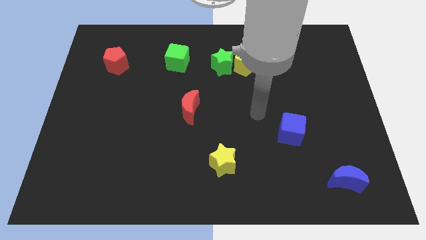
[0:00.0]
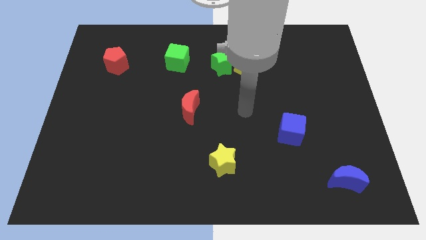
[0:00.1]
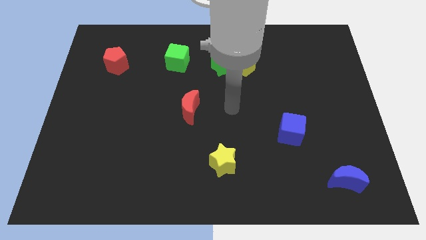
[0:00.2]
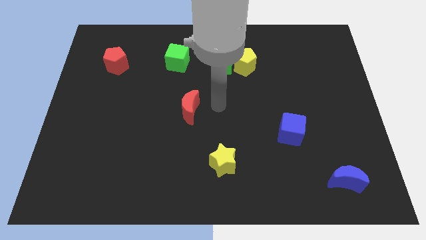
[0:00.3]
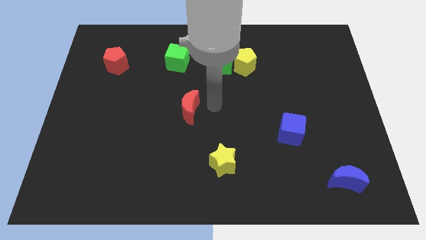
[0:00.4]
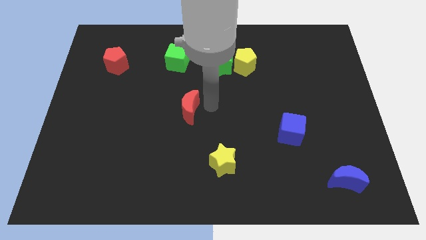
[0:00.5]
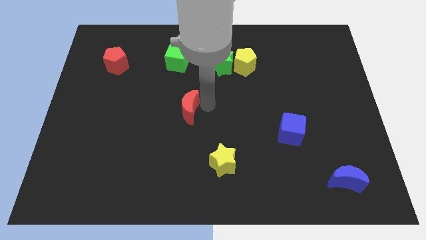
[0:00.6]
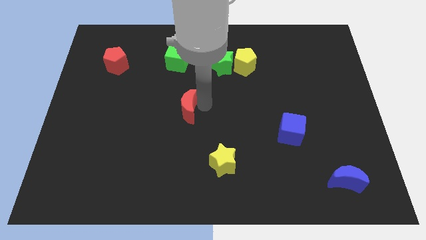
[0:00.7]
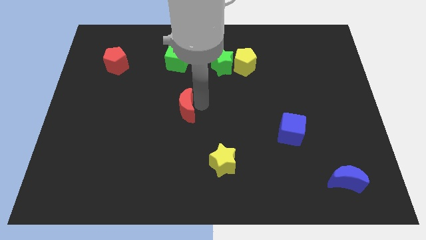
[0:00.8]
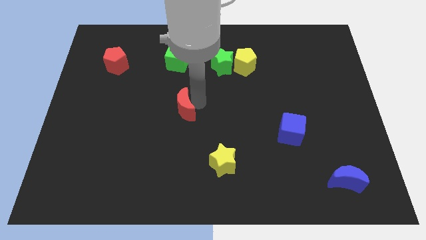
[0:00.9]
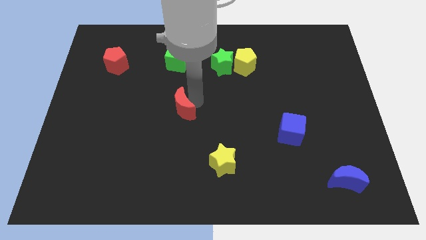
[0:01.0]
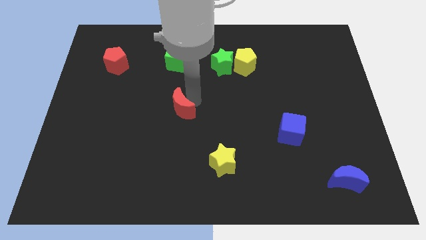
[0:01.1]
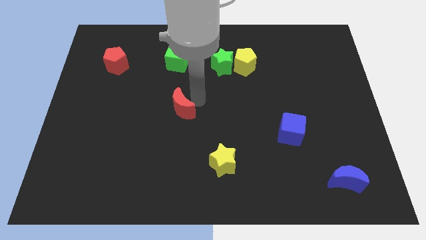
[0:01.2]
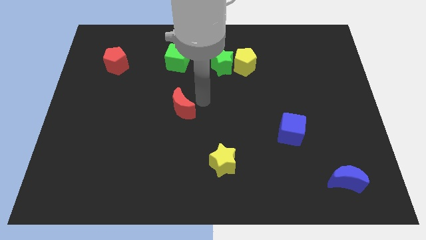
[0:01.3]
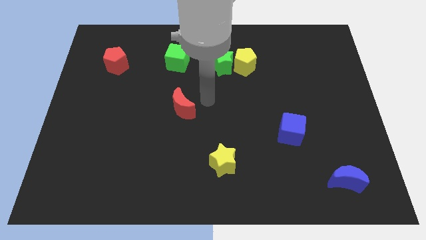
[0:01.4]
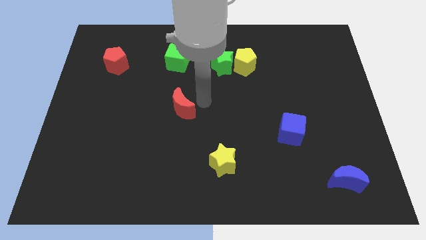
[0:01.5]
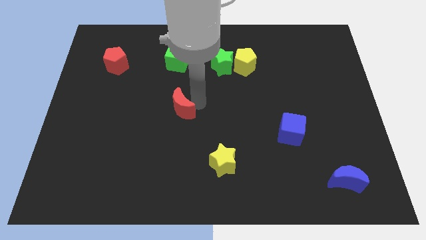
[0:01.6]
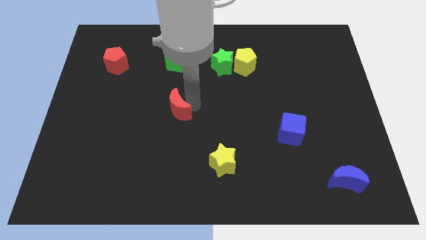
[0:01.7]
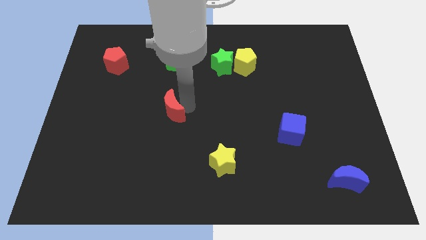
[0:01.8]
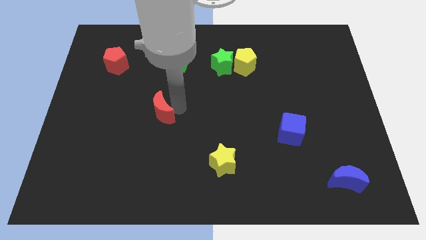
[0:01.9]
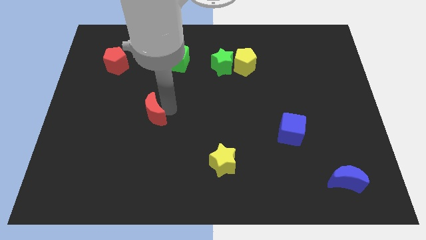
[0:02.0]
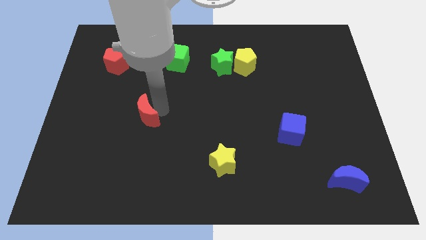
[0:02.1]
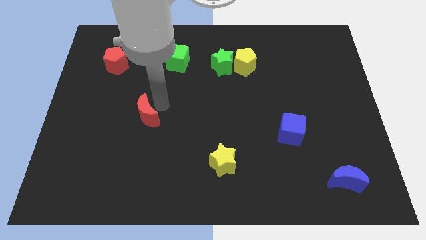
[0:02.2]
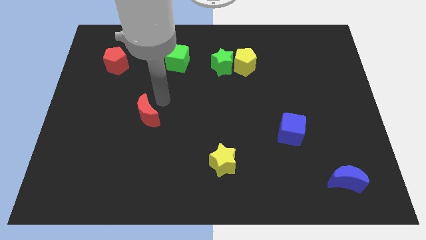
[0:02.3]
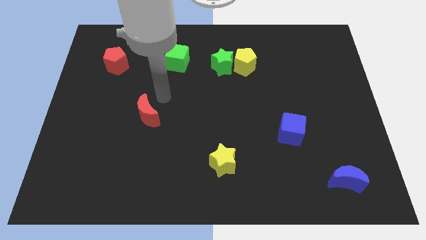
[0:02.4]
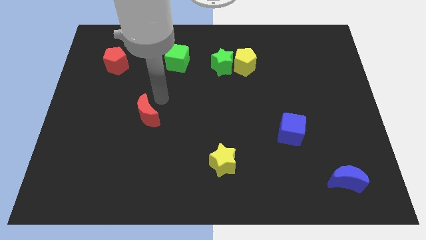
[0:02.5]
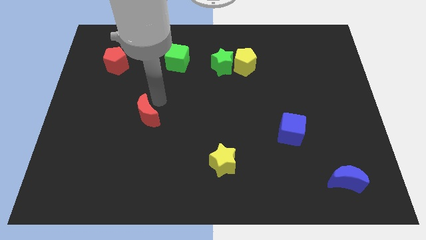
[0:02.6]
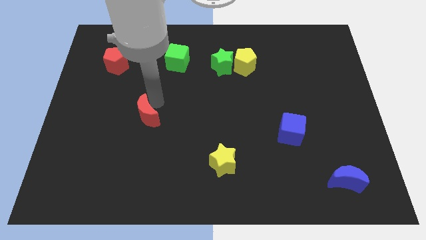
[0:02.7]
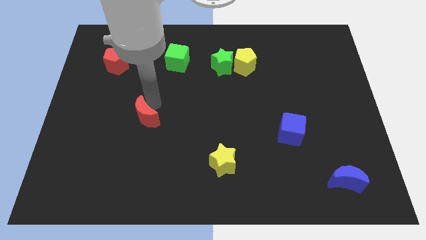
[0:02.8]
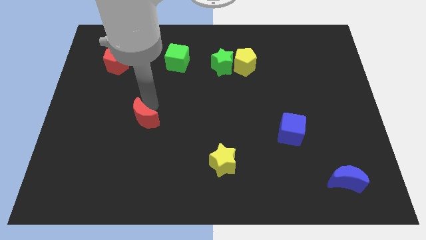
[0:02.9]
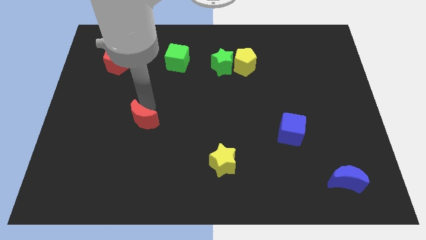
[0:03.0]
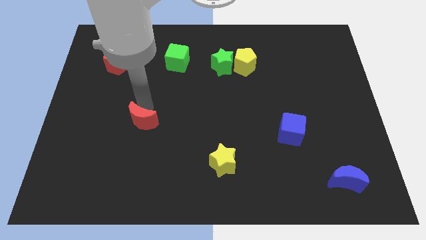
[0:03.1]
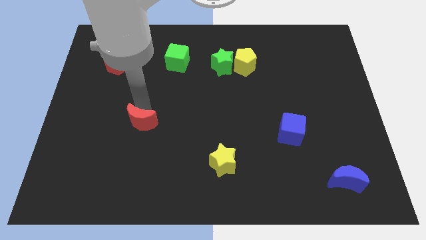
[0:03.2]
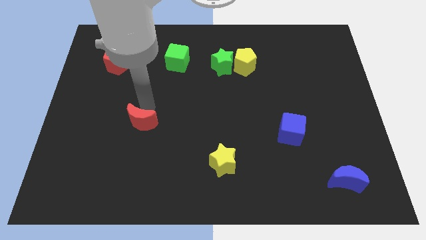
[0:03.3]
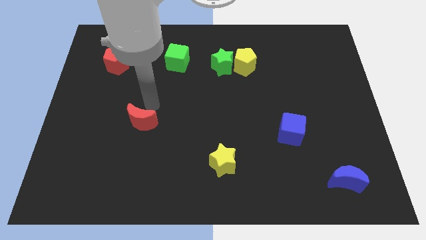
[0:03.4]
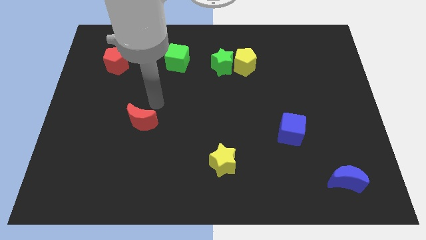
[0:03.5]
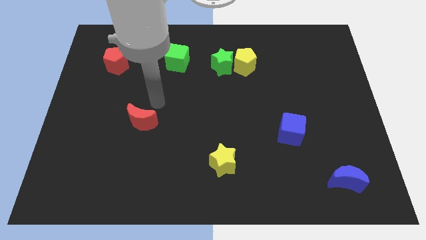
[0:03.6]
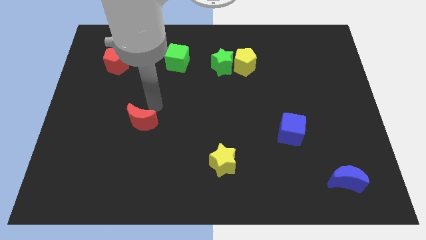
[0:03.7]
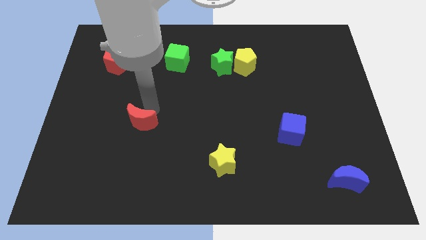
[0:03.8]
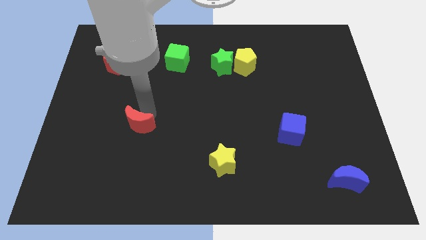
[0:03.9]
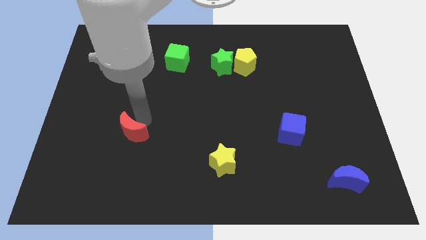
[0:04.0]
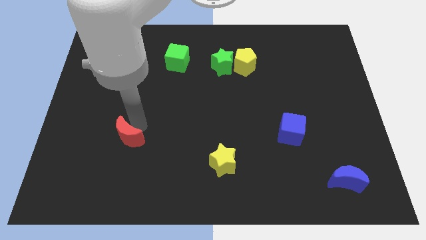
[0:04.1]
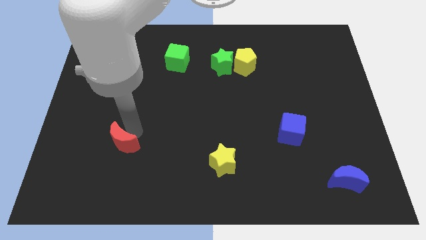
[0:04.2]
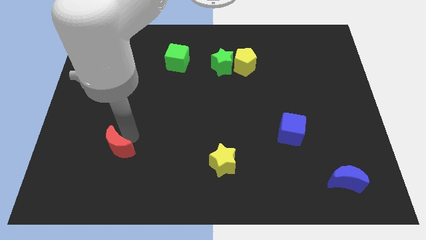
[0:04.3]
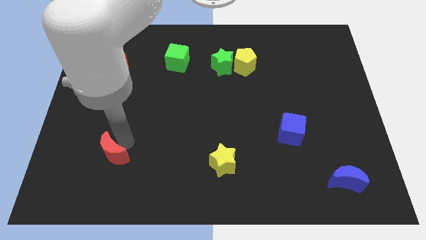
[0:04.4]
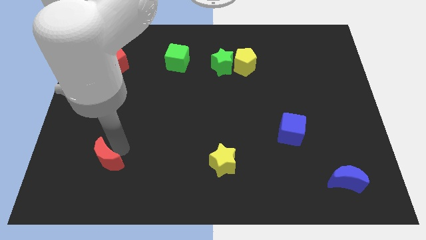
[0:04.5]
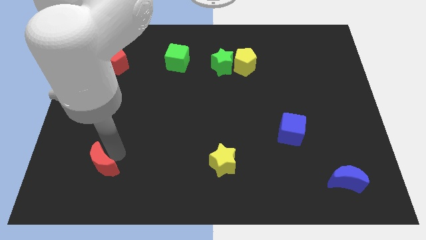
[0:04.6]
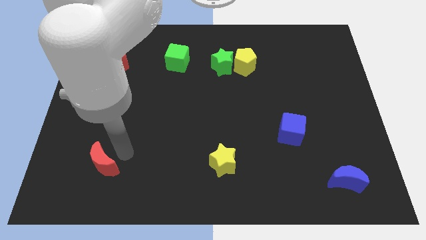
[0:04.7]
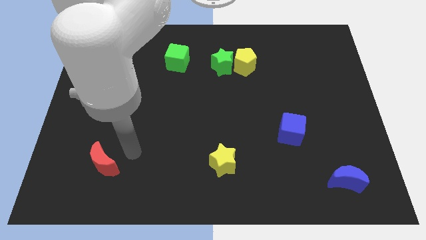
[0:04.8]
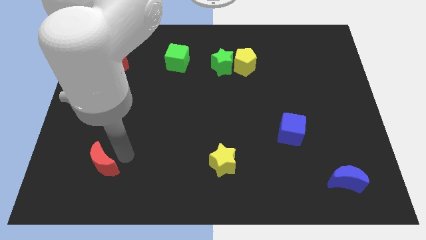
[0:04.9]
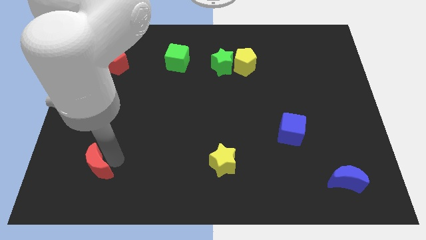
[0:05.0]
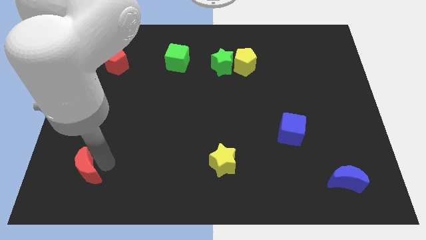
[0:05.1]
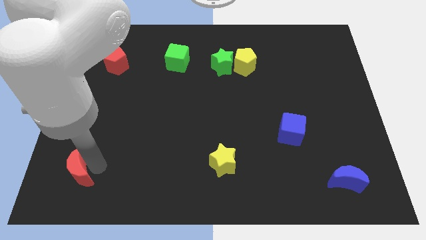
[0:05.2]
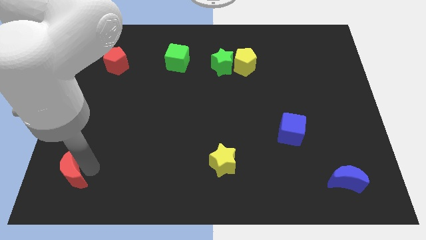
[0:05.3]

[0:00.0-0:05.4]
push the red moon to the bottom left

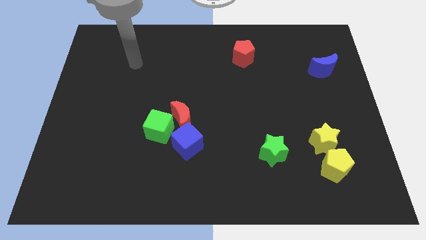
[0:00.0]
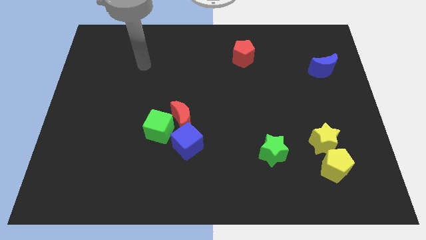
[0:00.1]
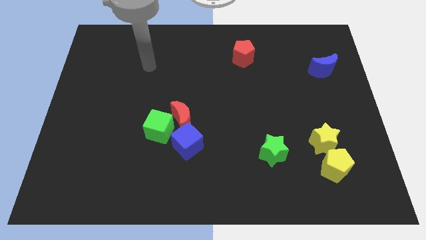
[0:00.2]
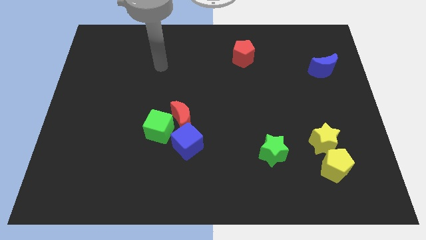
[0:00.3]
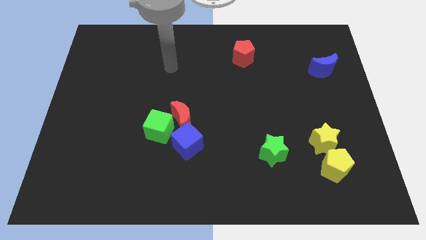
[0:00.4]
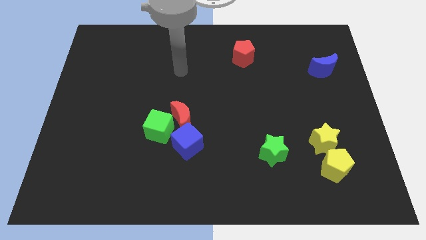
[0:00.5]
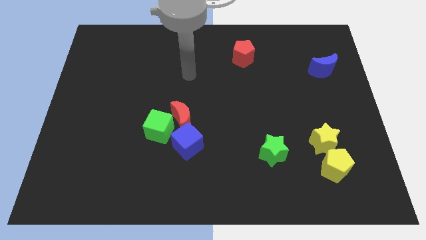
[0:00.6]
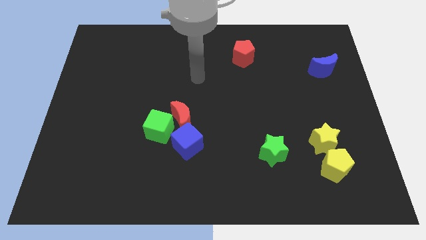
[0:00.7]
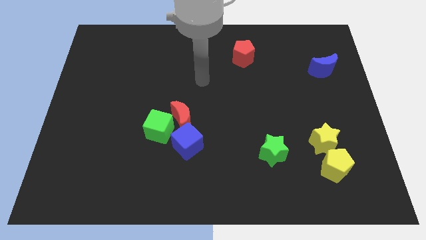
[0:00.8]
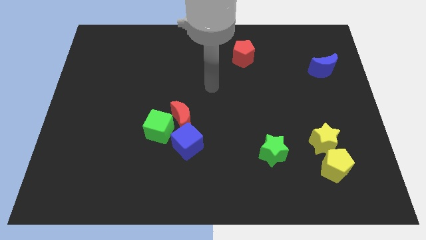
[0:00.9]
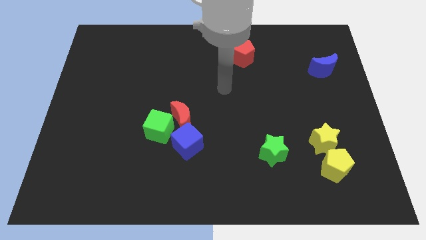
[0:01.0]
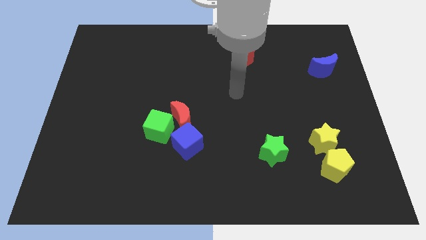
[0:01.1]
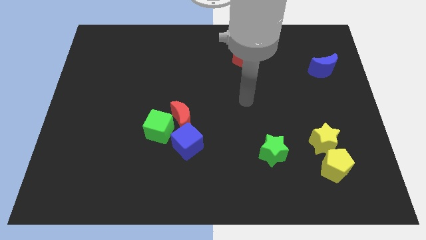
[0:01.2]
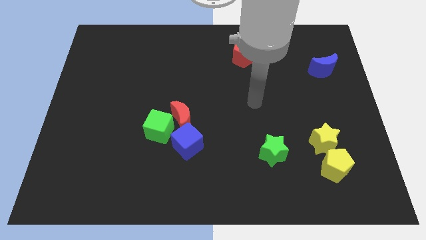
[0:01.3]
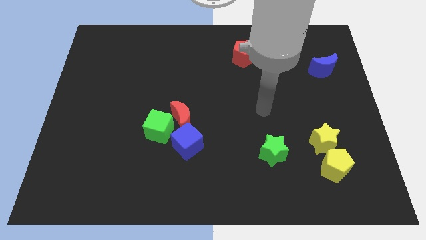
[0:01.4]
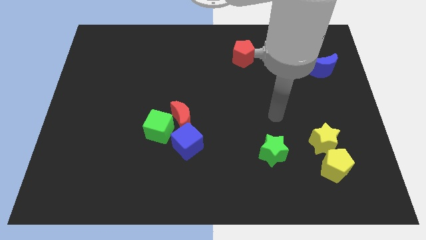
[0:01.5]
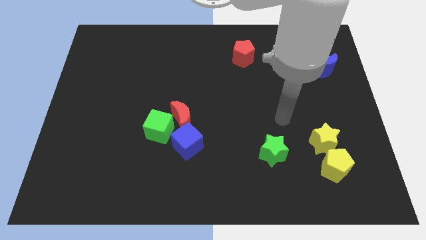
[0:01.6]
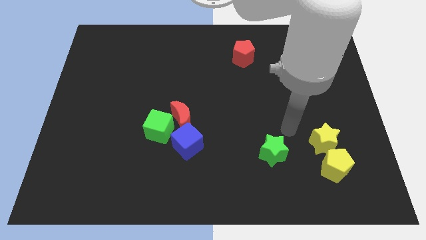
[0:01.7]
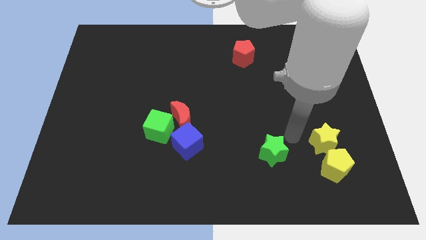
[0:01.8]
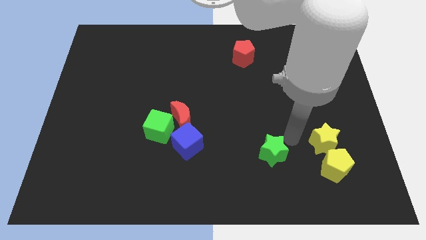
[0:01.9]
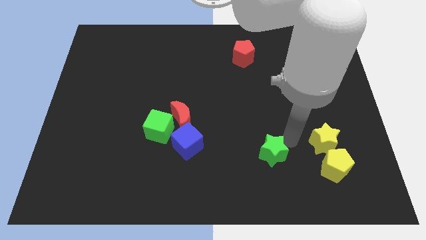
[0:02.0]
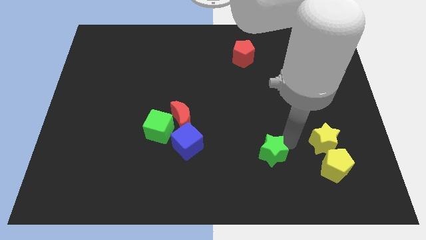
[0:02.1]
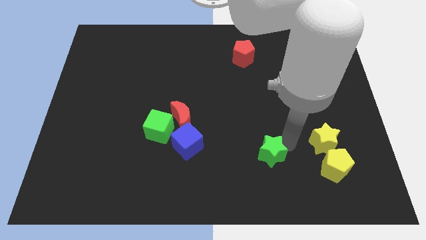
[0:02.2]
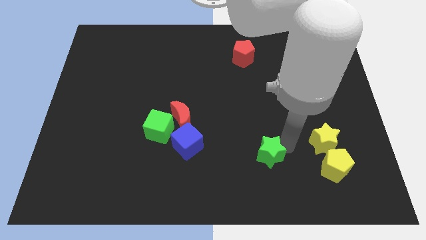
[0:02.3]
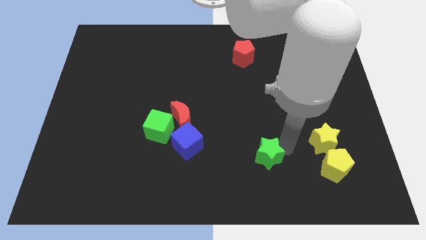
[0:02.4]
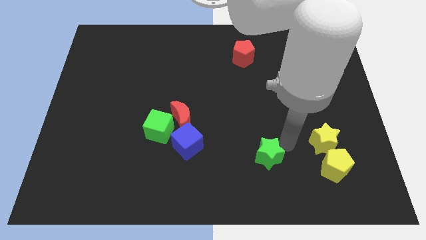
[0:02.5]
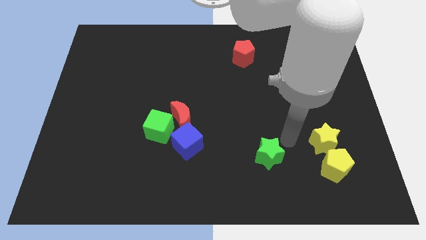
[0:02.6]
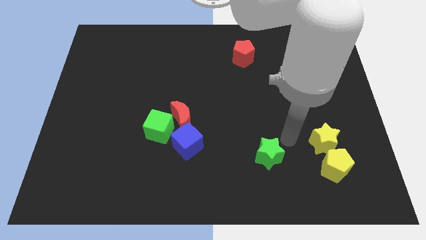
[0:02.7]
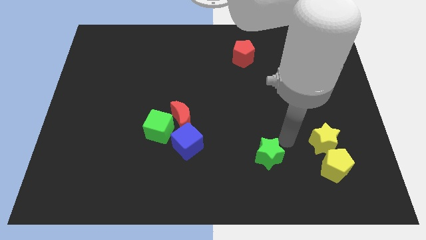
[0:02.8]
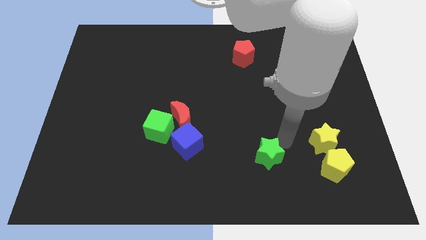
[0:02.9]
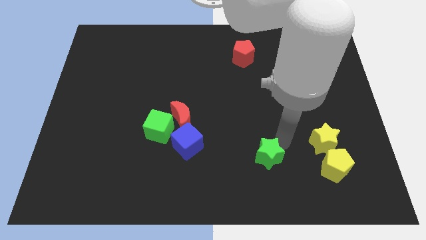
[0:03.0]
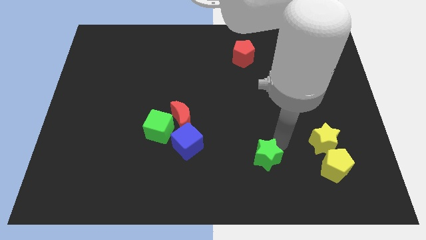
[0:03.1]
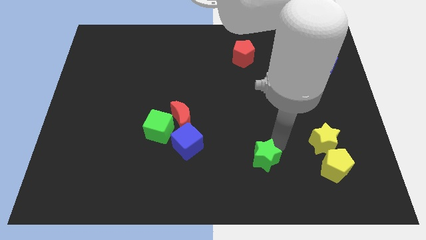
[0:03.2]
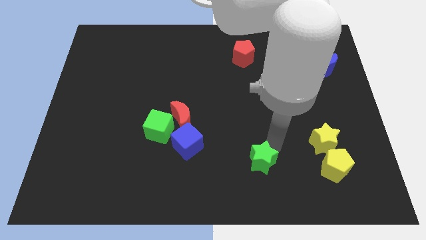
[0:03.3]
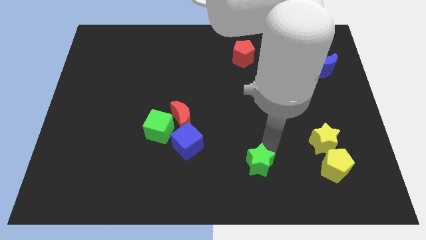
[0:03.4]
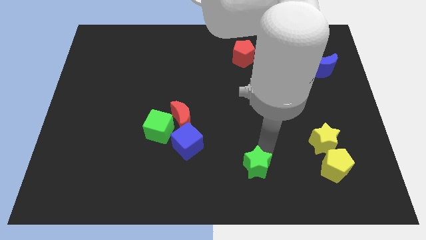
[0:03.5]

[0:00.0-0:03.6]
push the green star to the bottom
